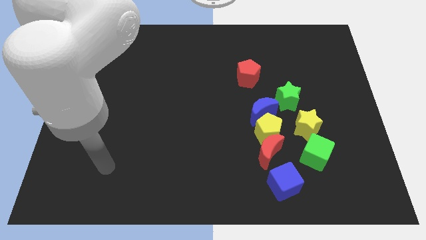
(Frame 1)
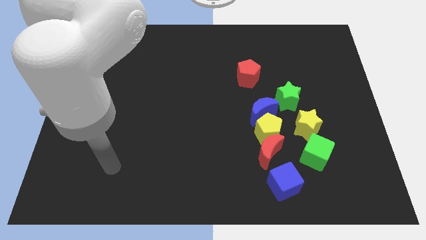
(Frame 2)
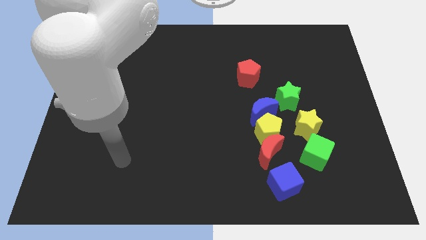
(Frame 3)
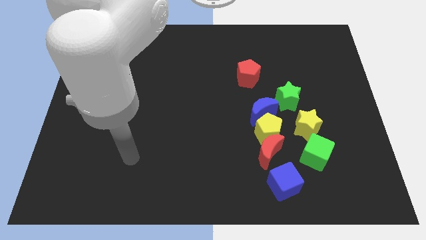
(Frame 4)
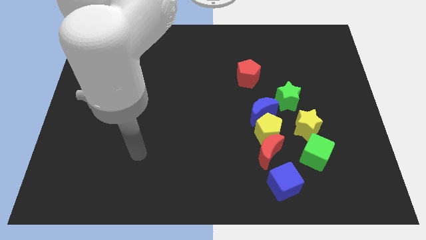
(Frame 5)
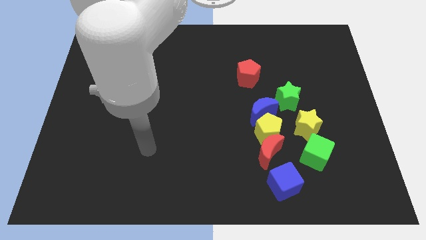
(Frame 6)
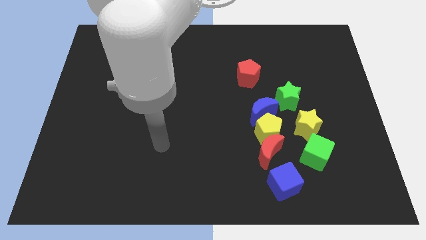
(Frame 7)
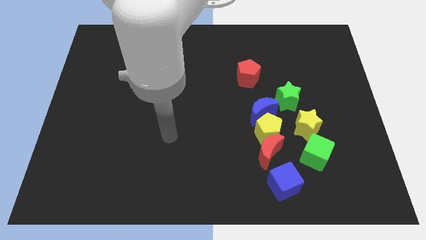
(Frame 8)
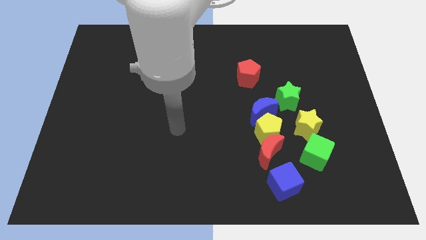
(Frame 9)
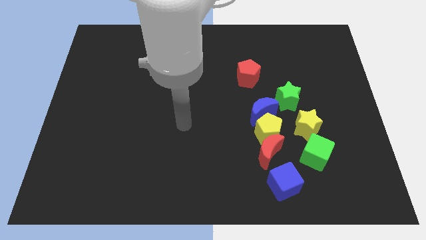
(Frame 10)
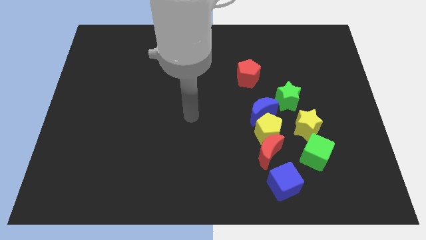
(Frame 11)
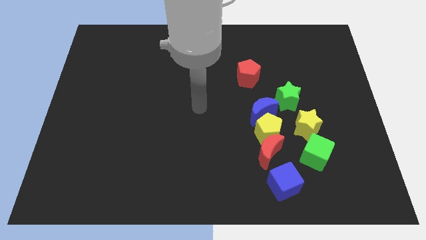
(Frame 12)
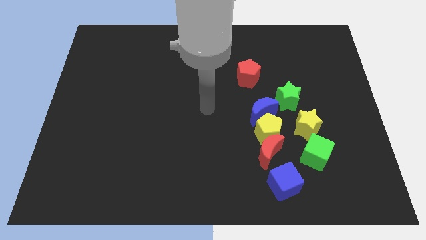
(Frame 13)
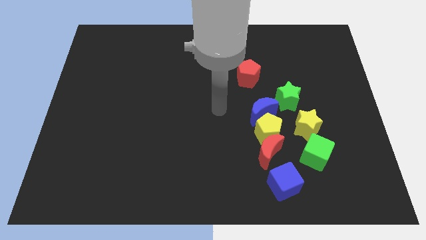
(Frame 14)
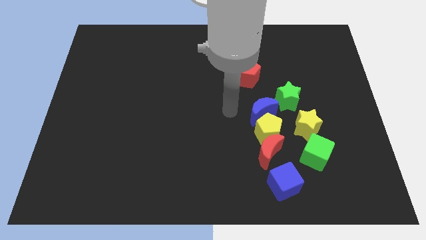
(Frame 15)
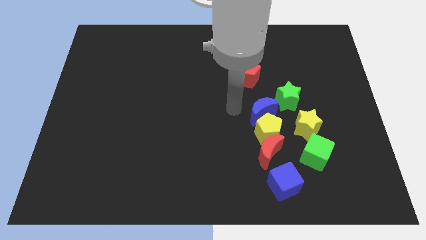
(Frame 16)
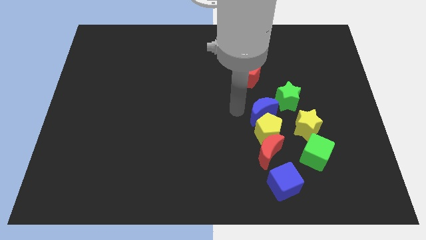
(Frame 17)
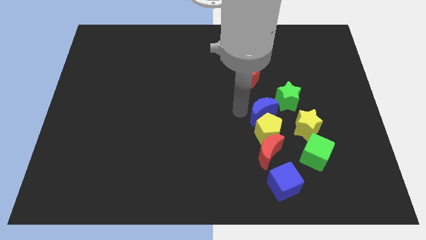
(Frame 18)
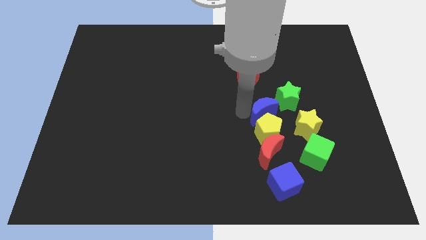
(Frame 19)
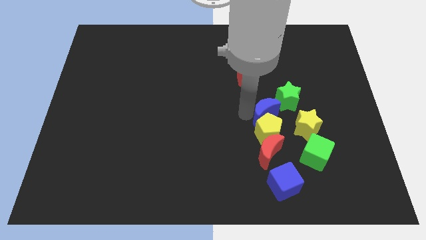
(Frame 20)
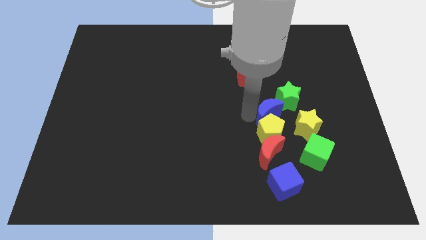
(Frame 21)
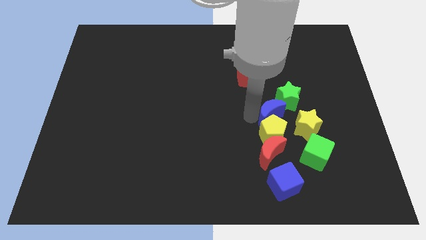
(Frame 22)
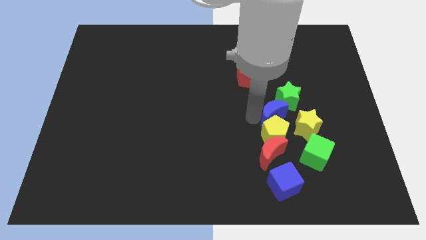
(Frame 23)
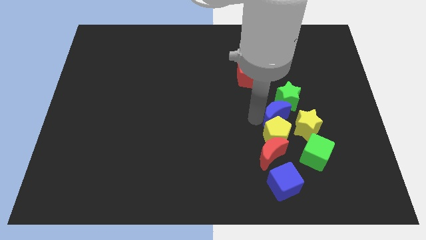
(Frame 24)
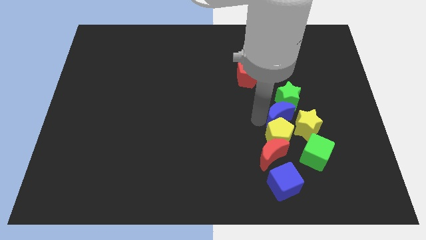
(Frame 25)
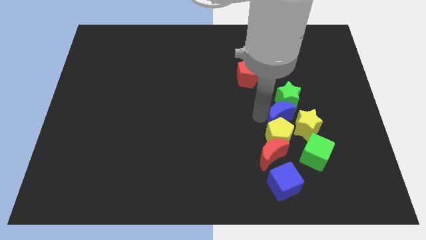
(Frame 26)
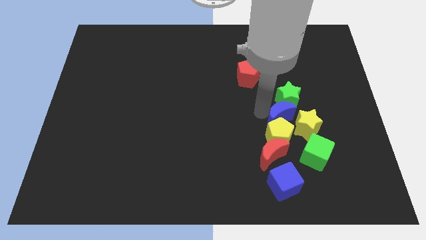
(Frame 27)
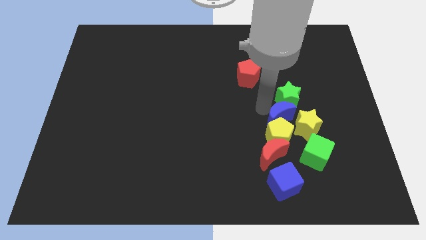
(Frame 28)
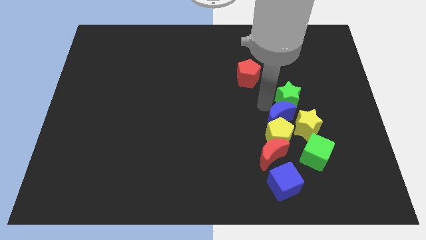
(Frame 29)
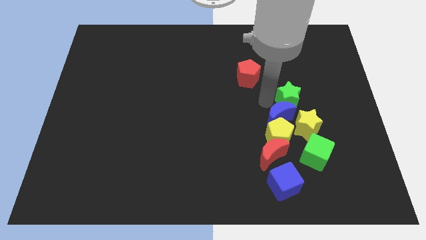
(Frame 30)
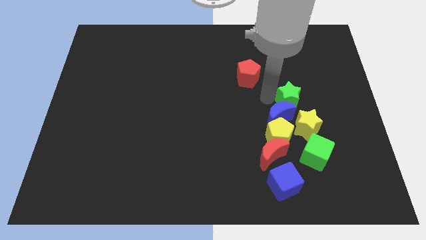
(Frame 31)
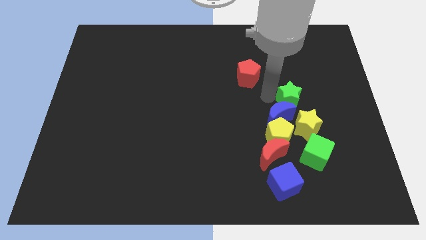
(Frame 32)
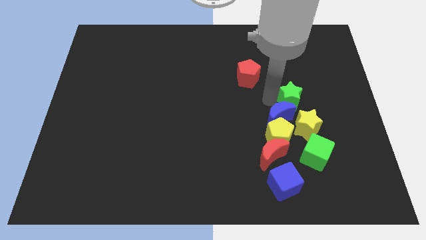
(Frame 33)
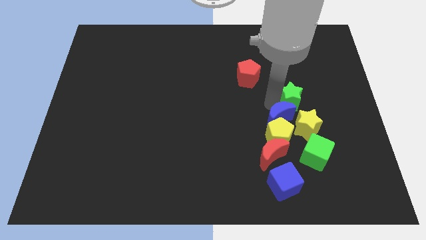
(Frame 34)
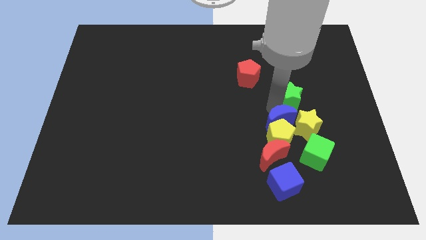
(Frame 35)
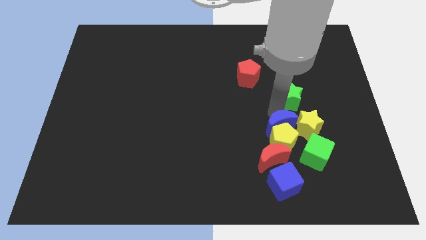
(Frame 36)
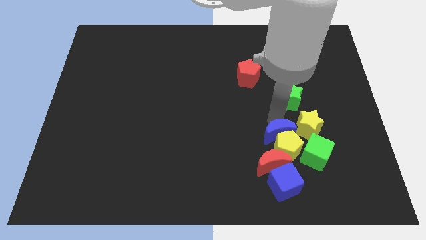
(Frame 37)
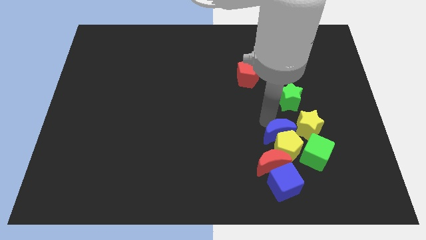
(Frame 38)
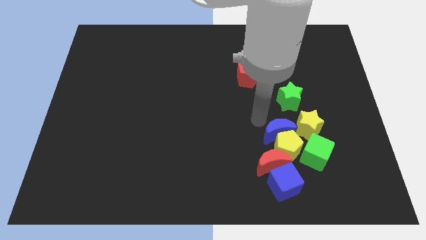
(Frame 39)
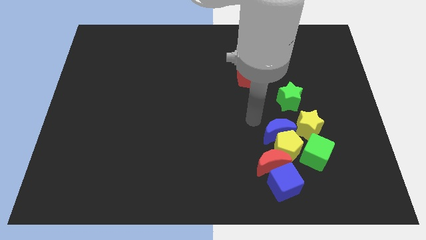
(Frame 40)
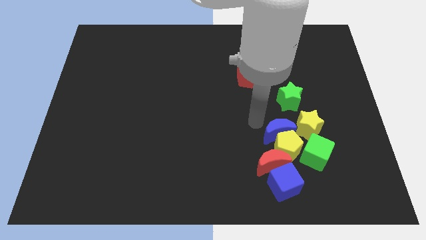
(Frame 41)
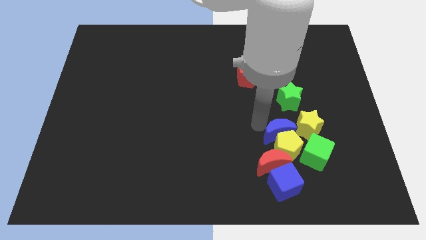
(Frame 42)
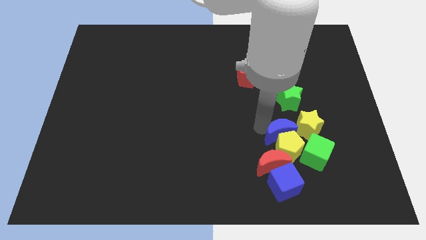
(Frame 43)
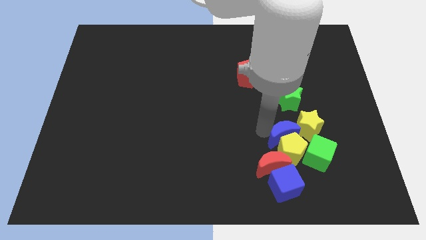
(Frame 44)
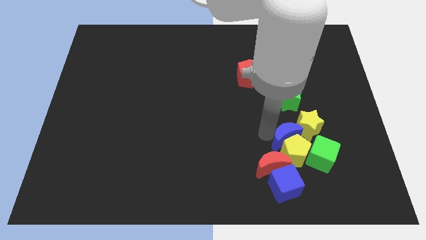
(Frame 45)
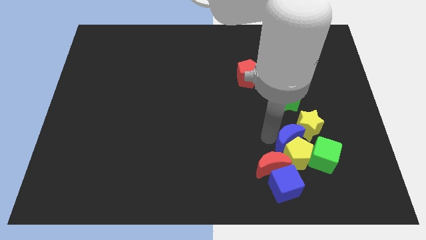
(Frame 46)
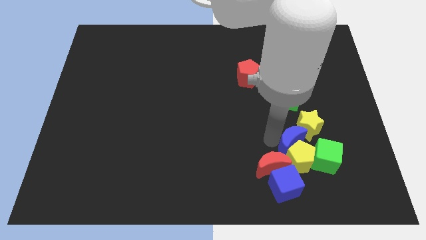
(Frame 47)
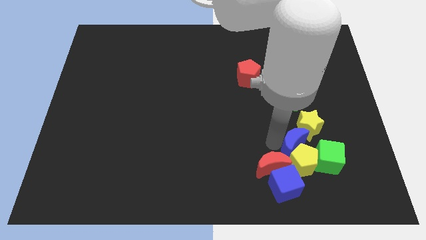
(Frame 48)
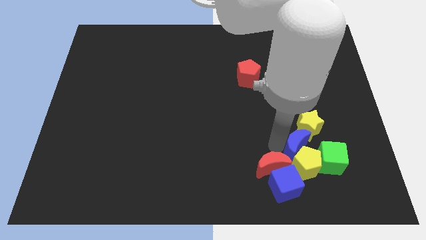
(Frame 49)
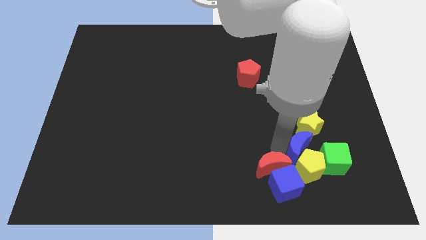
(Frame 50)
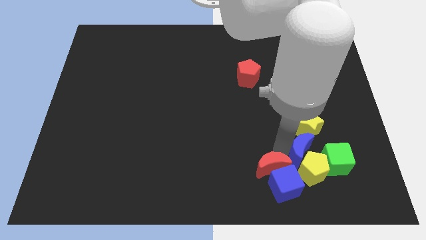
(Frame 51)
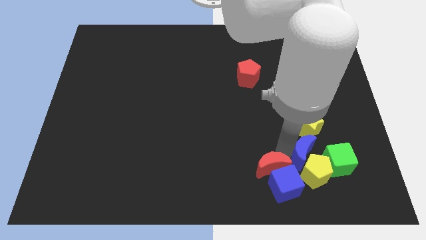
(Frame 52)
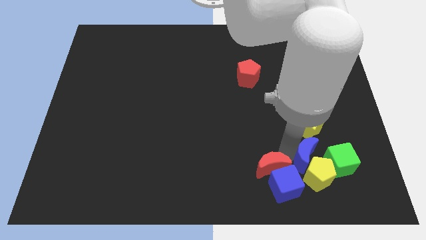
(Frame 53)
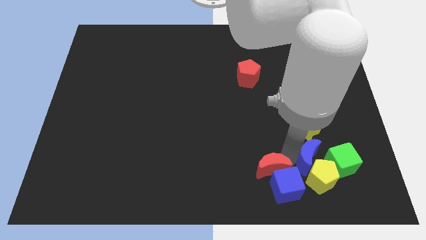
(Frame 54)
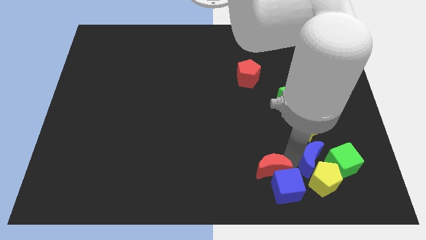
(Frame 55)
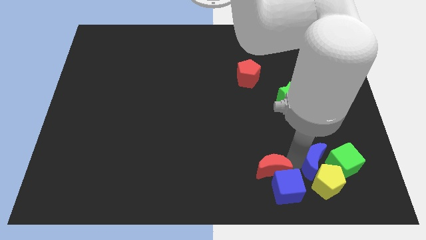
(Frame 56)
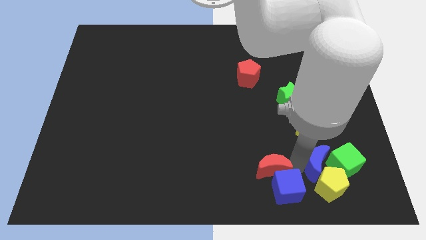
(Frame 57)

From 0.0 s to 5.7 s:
slide the blue moon close to the green cube

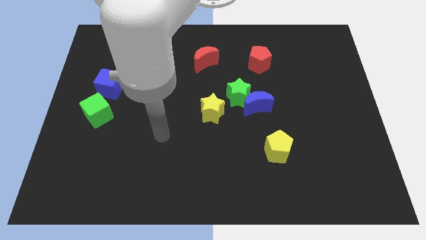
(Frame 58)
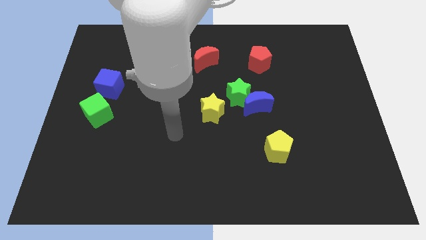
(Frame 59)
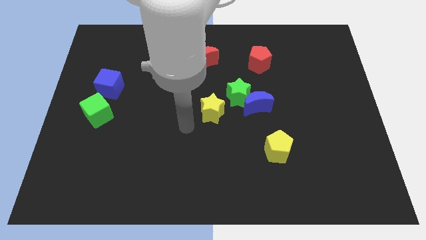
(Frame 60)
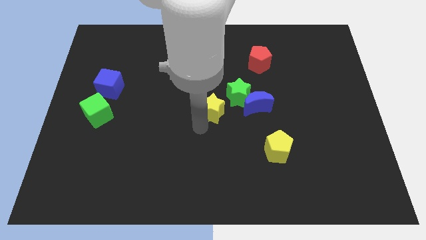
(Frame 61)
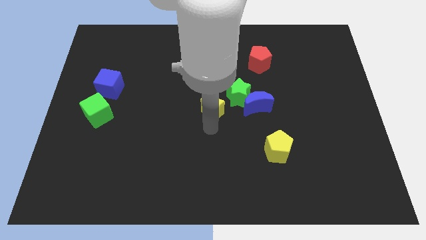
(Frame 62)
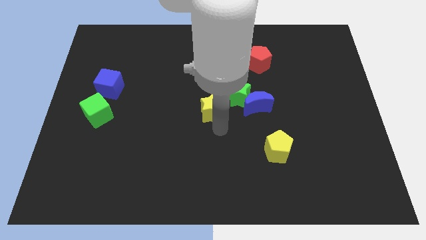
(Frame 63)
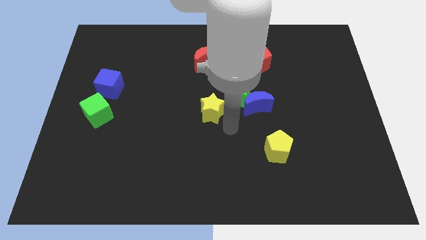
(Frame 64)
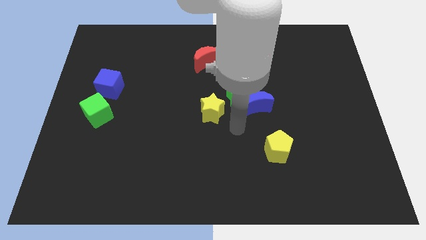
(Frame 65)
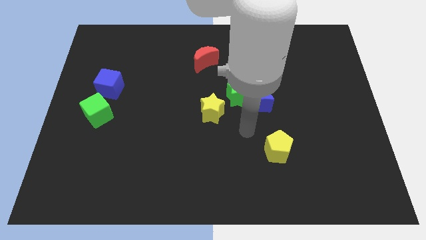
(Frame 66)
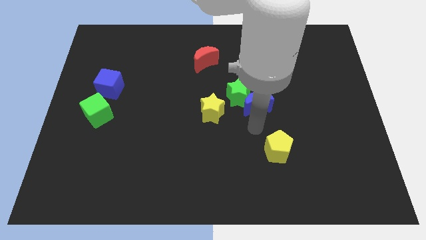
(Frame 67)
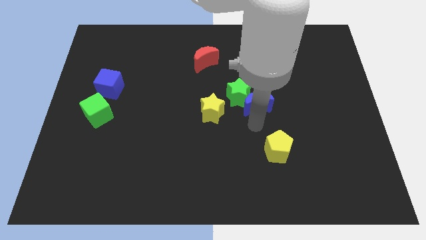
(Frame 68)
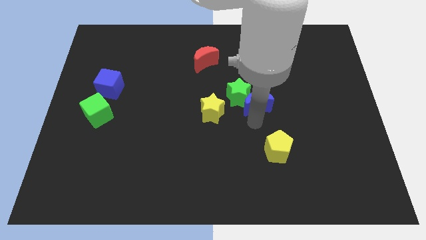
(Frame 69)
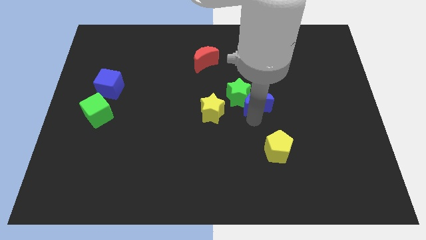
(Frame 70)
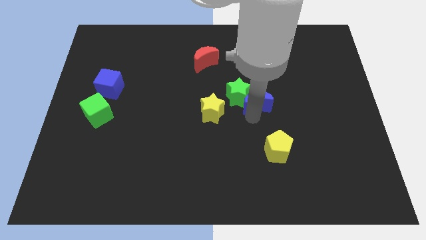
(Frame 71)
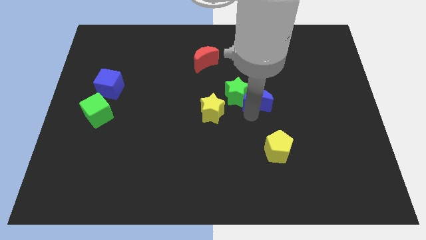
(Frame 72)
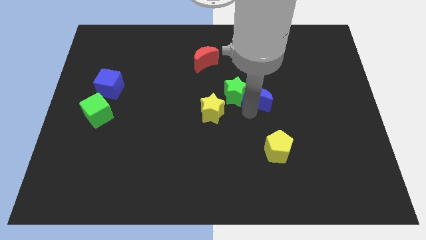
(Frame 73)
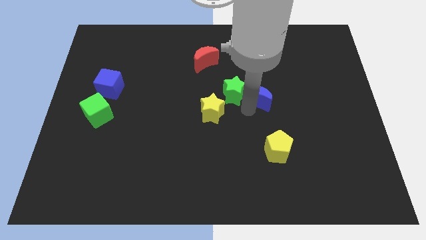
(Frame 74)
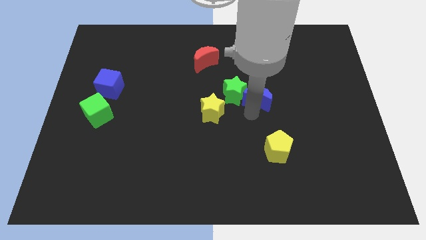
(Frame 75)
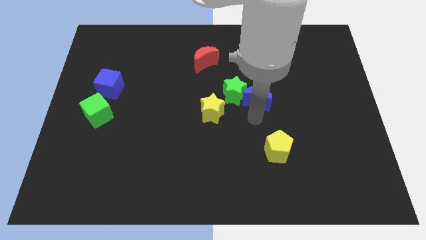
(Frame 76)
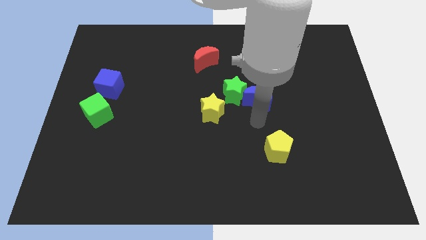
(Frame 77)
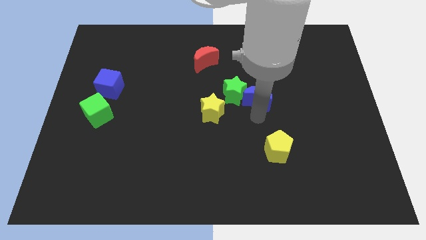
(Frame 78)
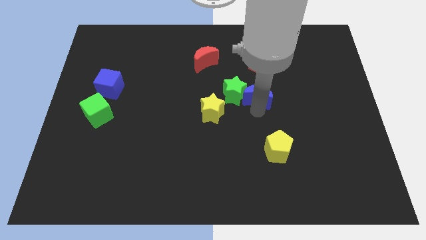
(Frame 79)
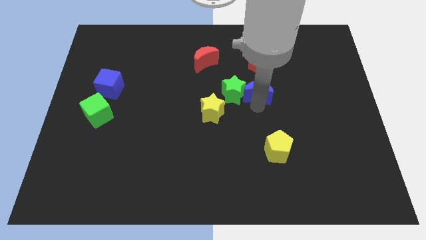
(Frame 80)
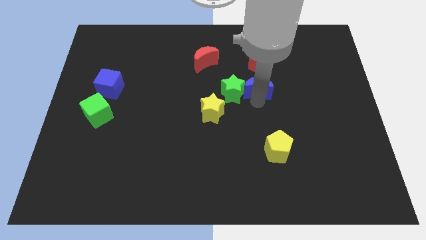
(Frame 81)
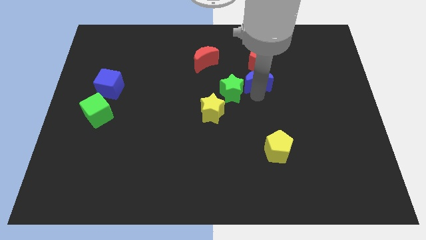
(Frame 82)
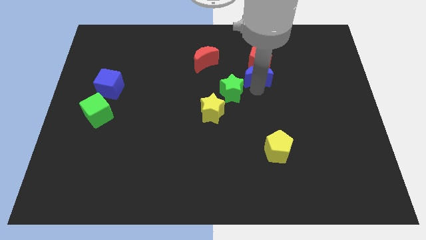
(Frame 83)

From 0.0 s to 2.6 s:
move the blue moon close to the red pentagon

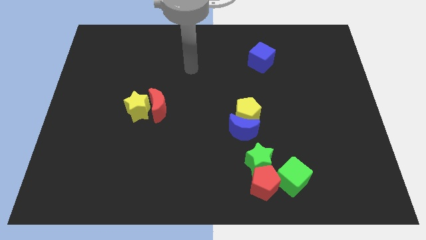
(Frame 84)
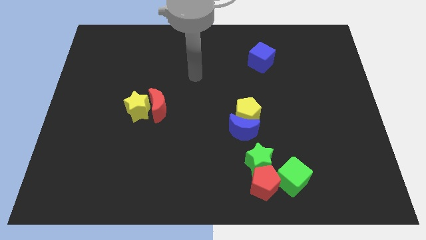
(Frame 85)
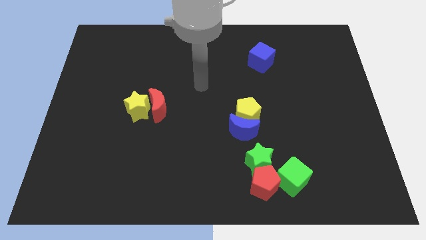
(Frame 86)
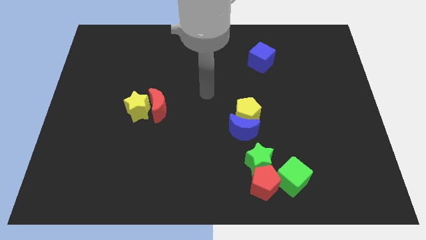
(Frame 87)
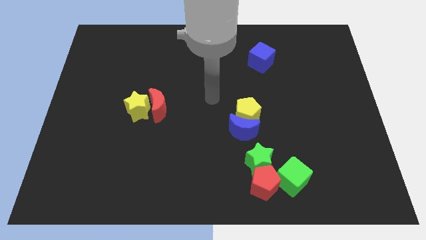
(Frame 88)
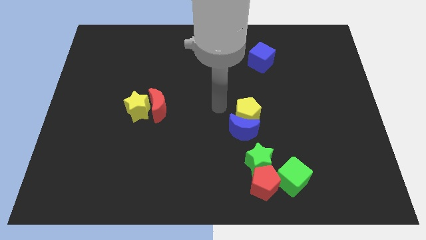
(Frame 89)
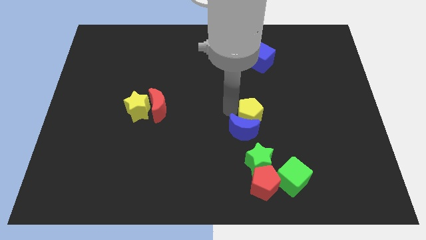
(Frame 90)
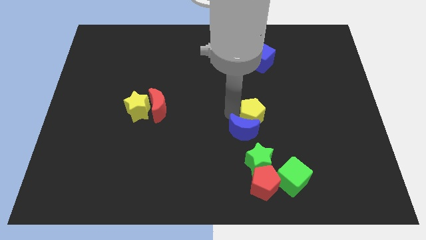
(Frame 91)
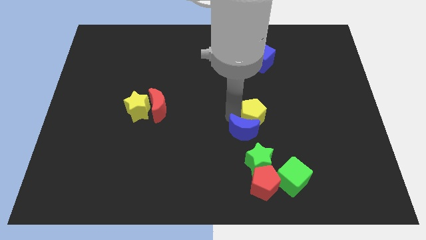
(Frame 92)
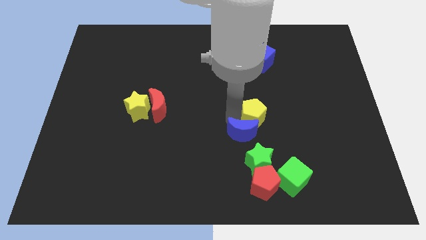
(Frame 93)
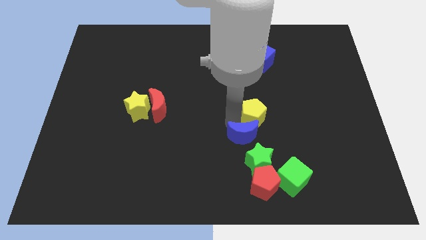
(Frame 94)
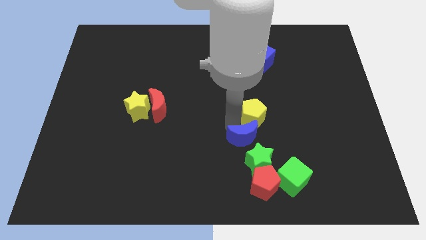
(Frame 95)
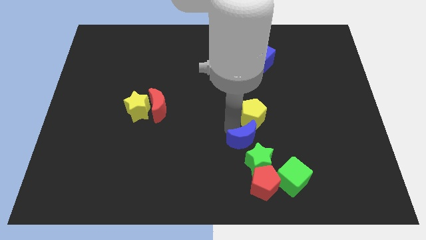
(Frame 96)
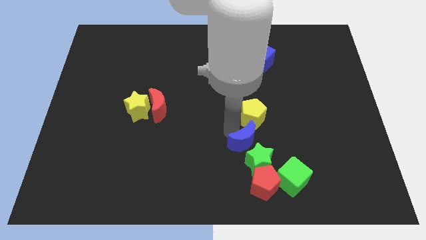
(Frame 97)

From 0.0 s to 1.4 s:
push the blue moon towards the green star
